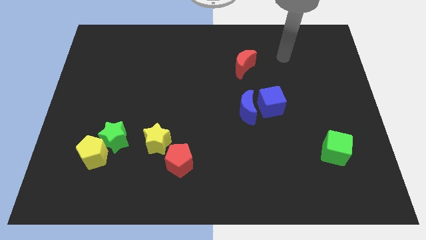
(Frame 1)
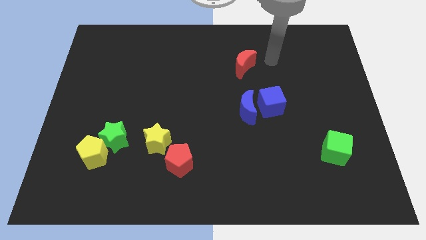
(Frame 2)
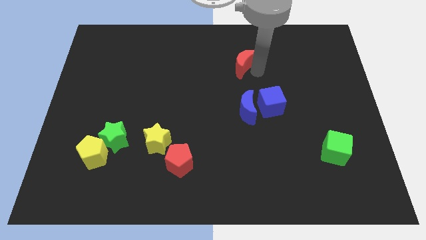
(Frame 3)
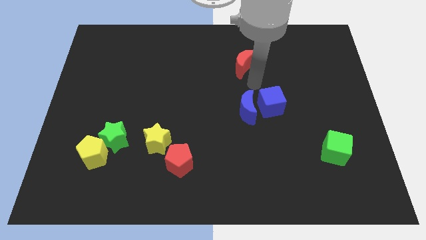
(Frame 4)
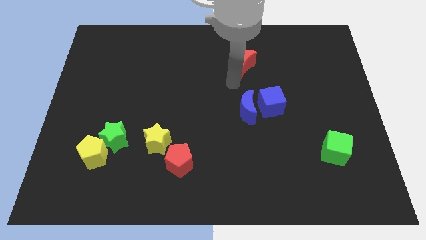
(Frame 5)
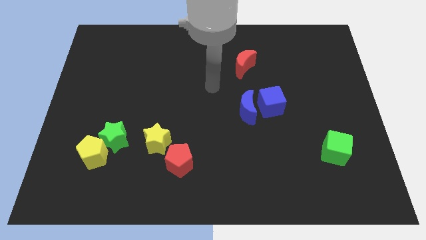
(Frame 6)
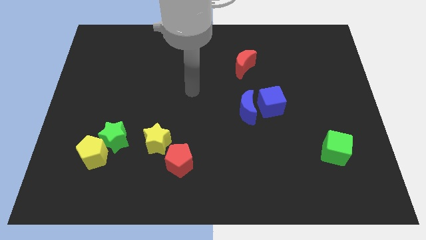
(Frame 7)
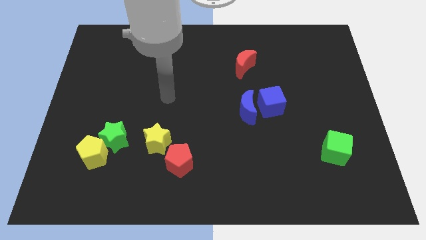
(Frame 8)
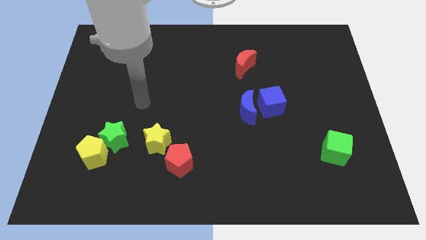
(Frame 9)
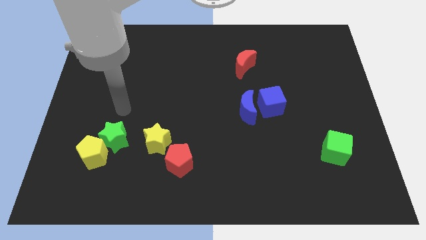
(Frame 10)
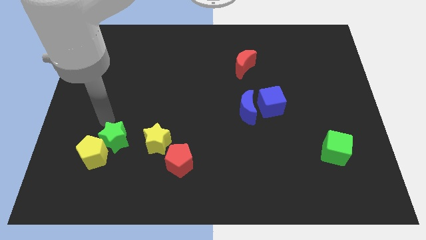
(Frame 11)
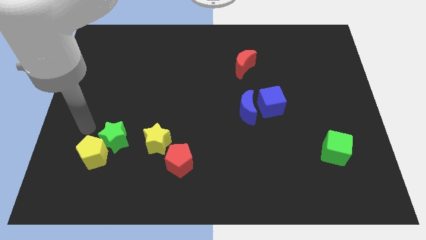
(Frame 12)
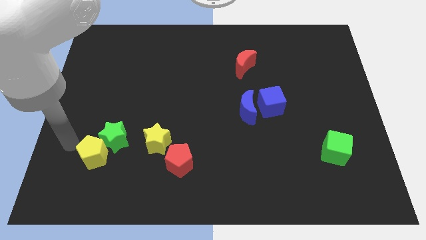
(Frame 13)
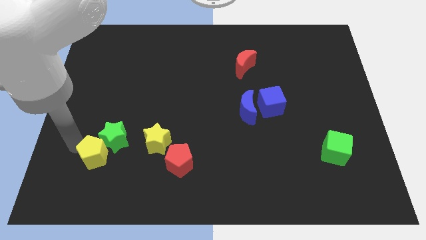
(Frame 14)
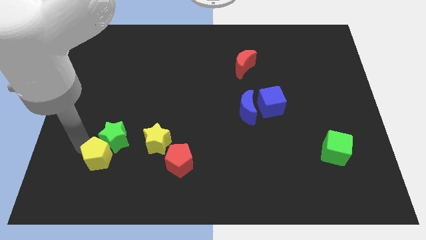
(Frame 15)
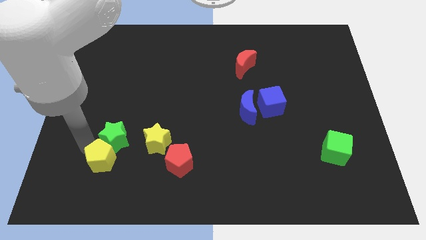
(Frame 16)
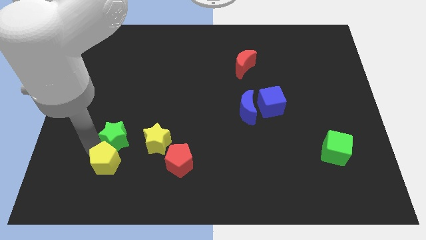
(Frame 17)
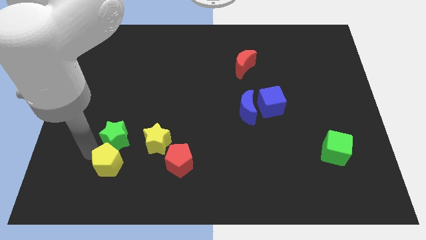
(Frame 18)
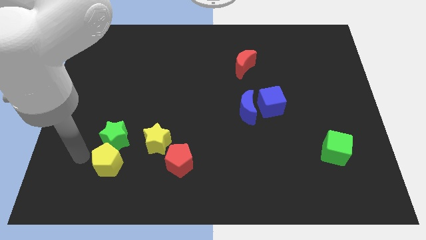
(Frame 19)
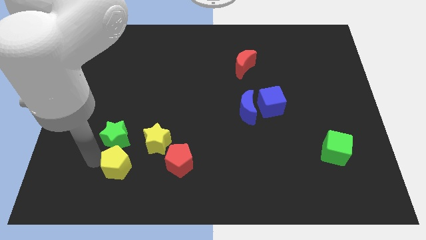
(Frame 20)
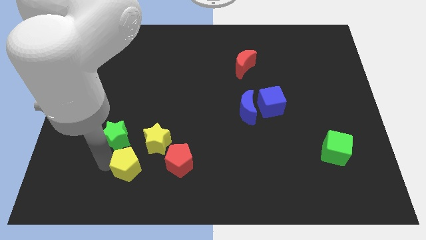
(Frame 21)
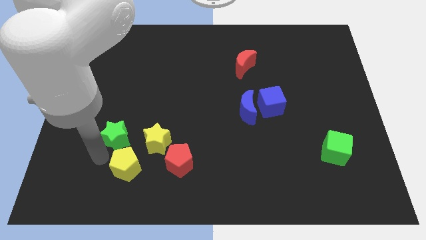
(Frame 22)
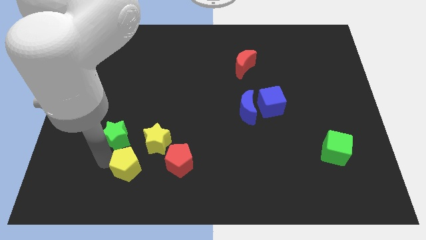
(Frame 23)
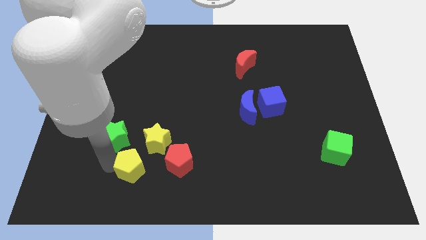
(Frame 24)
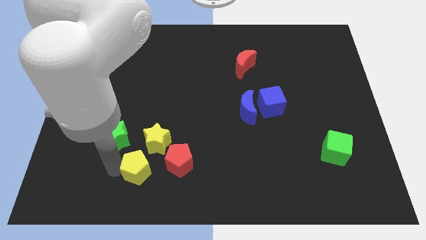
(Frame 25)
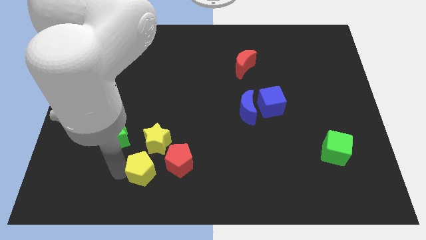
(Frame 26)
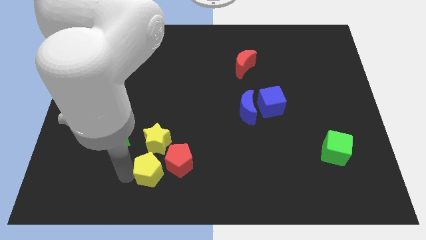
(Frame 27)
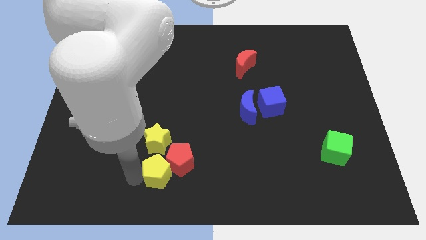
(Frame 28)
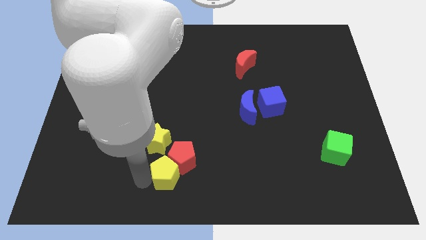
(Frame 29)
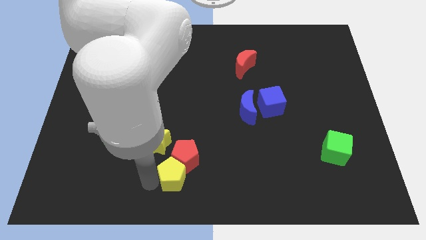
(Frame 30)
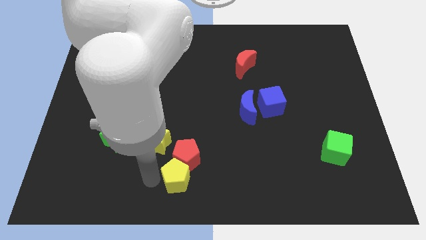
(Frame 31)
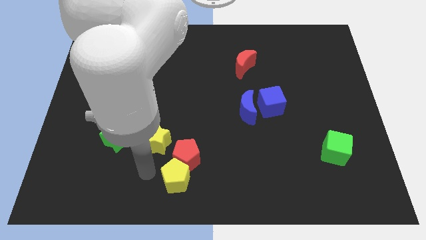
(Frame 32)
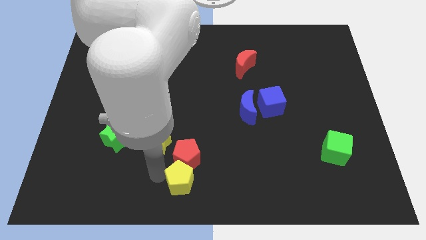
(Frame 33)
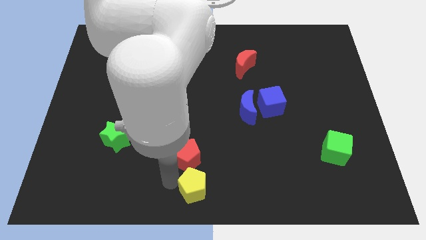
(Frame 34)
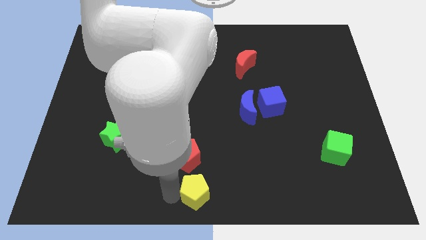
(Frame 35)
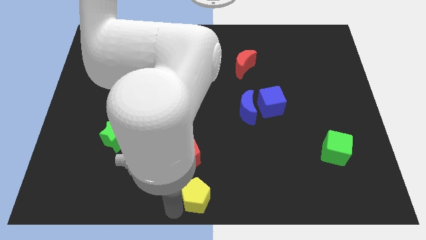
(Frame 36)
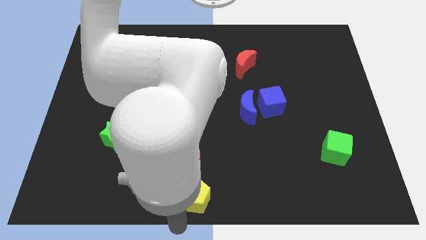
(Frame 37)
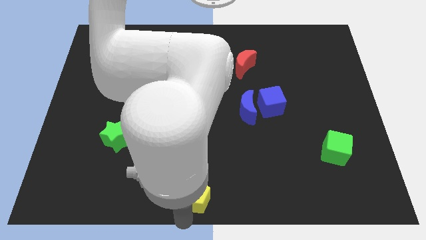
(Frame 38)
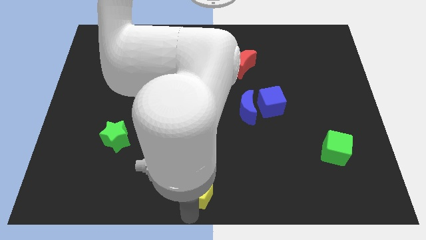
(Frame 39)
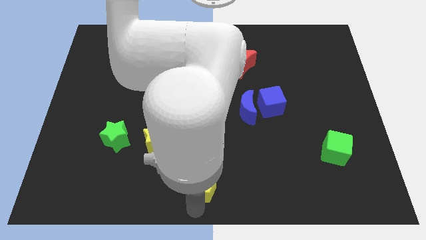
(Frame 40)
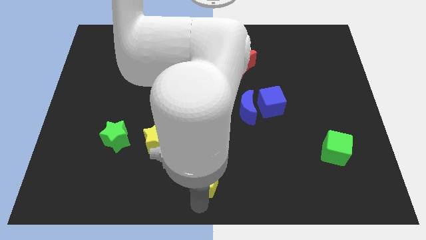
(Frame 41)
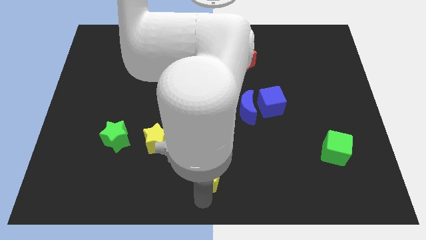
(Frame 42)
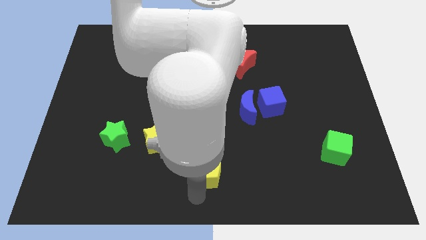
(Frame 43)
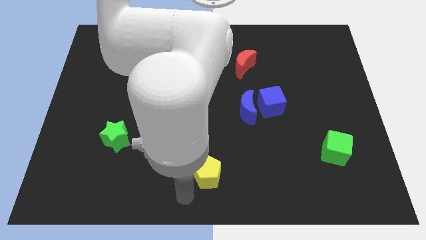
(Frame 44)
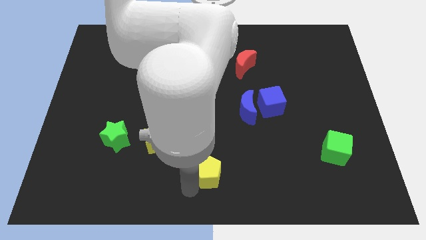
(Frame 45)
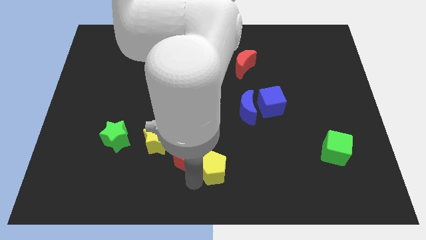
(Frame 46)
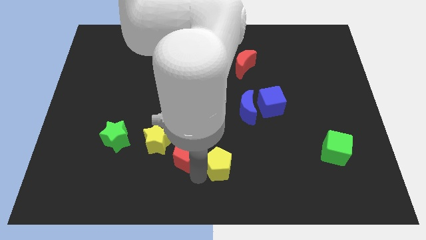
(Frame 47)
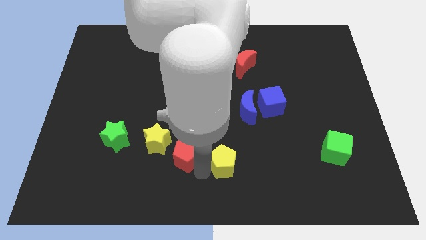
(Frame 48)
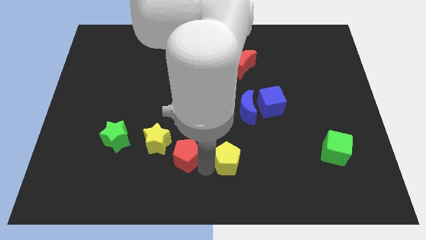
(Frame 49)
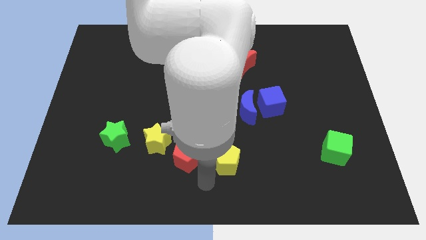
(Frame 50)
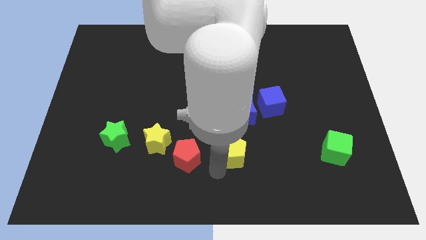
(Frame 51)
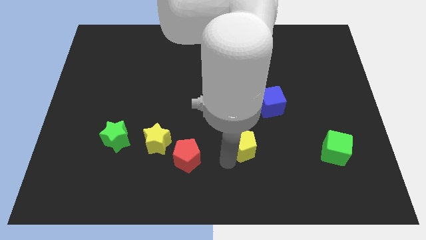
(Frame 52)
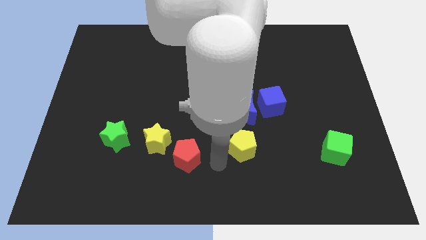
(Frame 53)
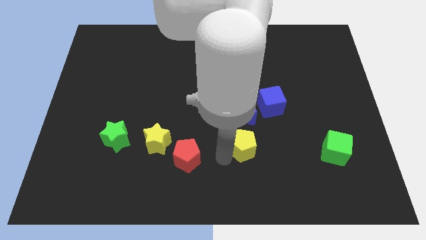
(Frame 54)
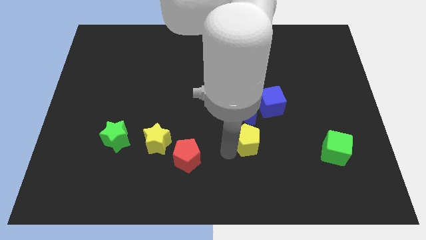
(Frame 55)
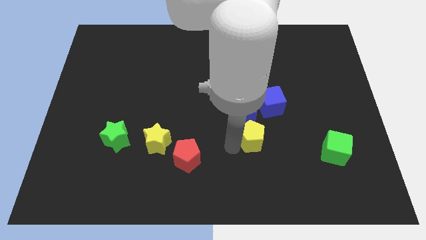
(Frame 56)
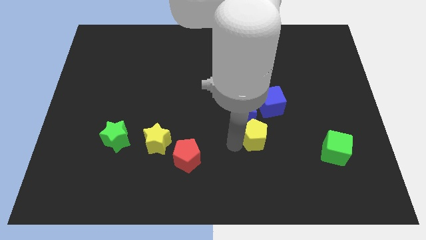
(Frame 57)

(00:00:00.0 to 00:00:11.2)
push the yellow pentagon to the bottom right side of the blue moon
